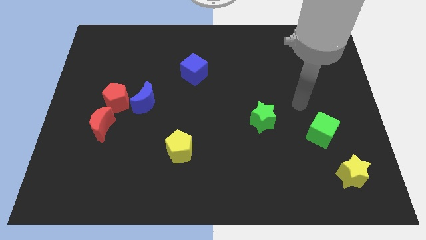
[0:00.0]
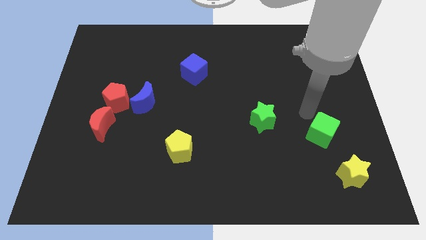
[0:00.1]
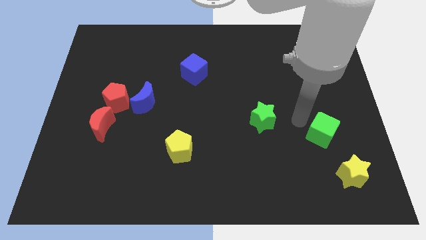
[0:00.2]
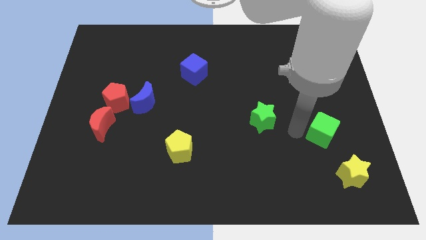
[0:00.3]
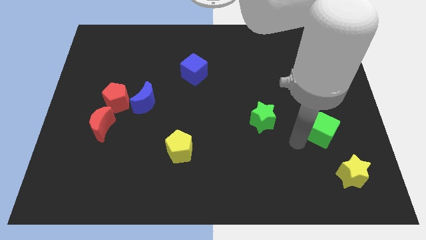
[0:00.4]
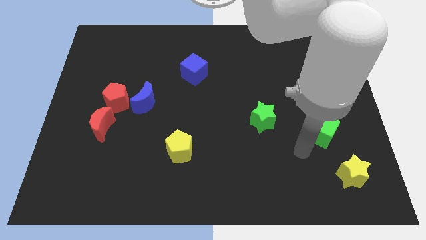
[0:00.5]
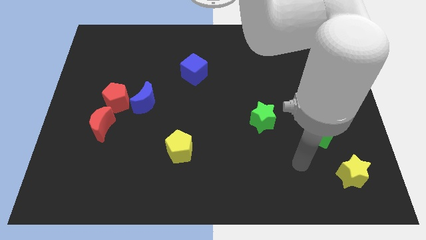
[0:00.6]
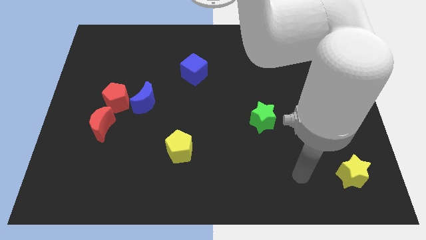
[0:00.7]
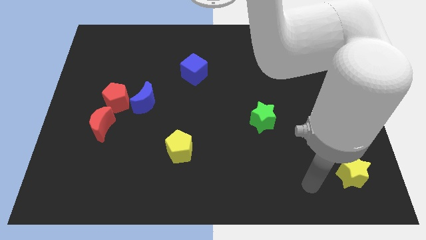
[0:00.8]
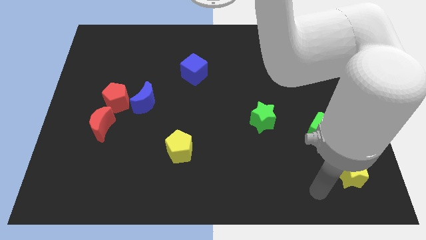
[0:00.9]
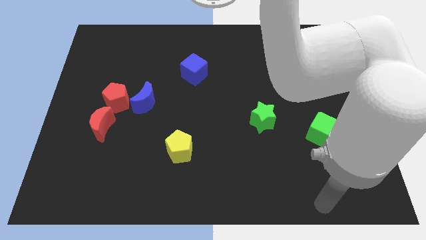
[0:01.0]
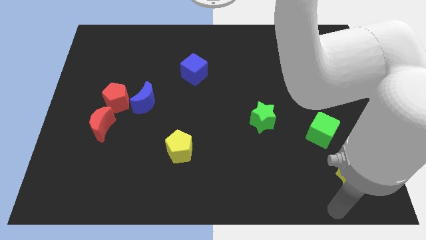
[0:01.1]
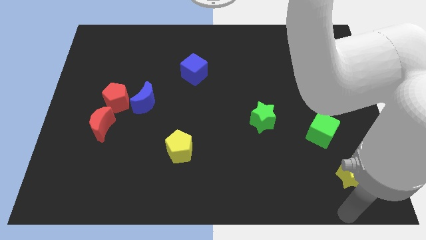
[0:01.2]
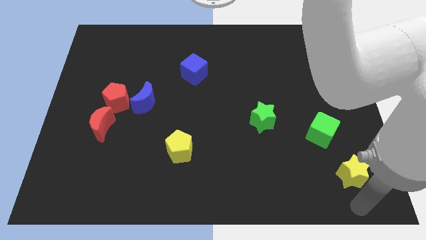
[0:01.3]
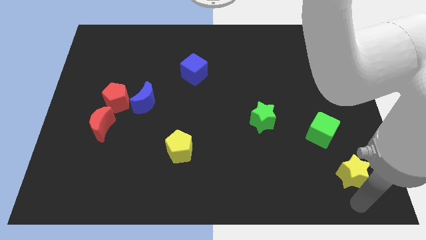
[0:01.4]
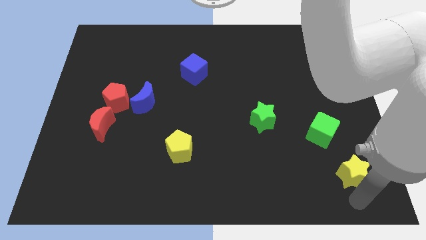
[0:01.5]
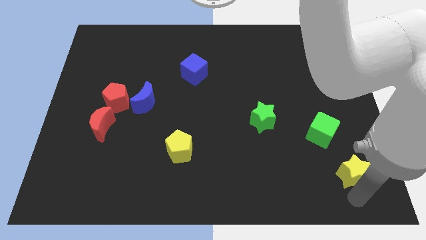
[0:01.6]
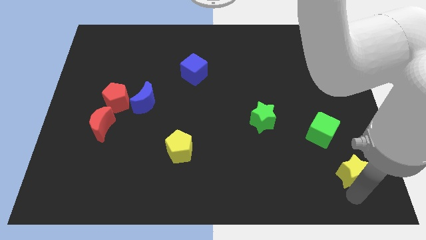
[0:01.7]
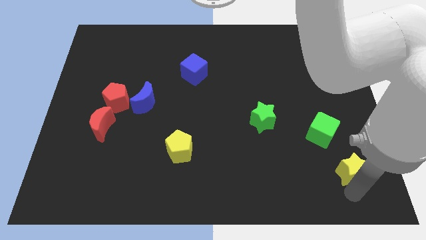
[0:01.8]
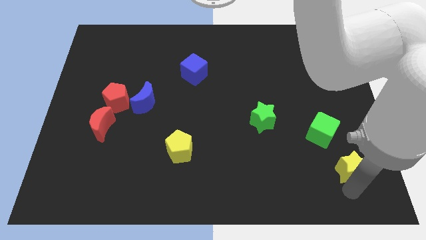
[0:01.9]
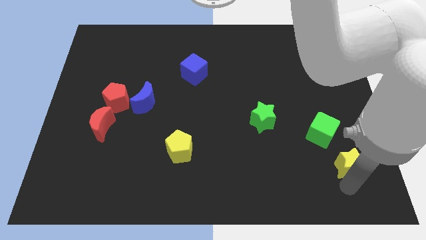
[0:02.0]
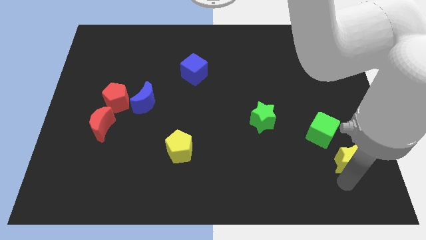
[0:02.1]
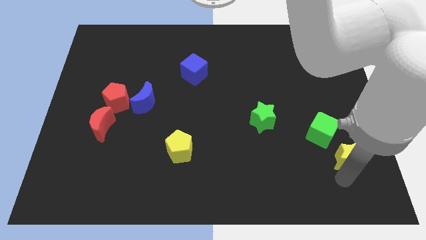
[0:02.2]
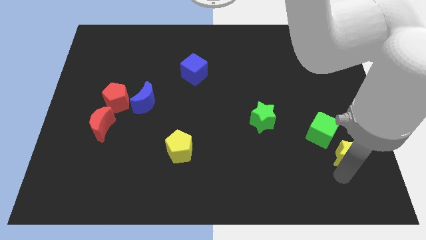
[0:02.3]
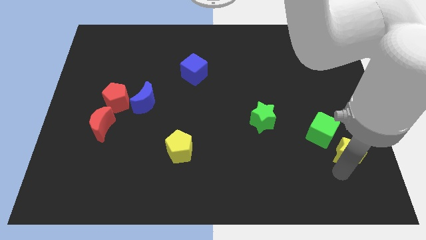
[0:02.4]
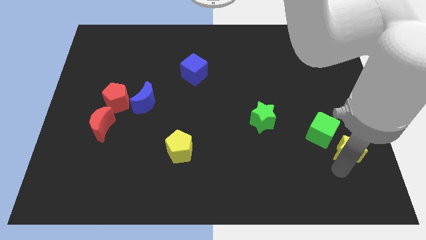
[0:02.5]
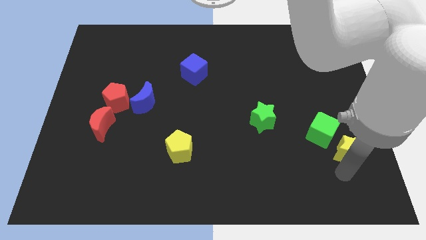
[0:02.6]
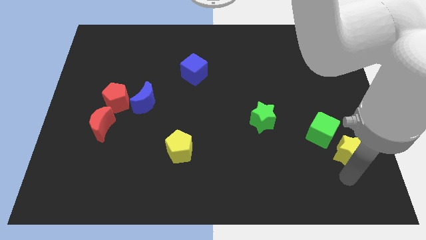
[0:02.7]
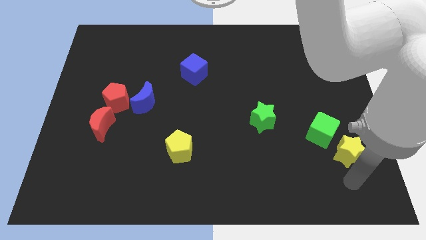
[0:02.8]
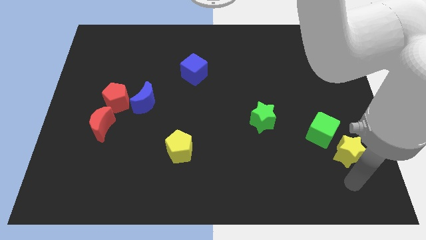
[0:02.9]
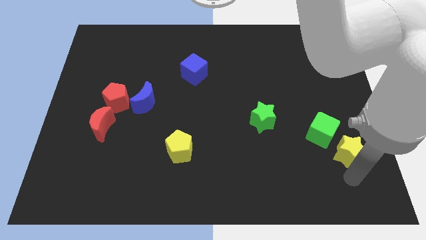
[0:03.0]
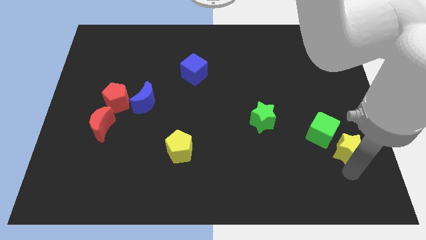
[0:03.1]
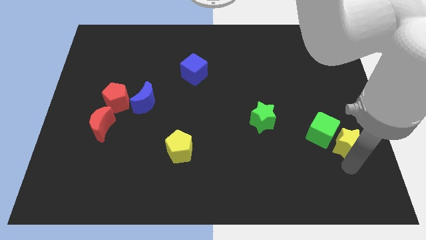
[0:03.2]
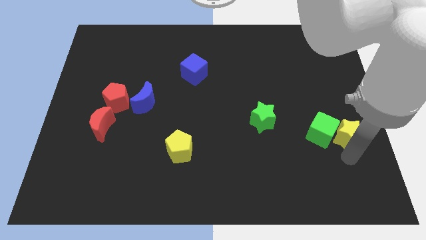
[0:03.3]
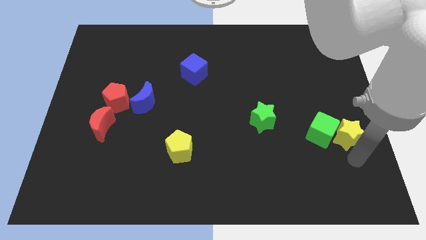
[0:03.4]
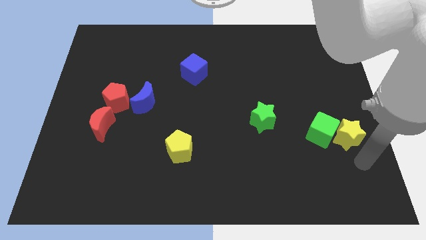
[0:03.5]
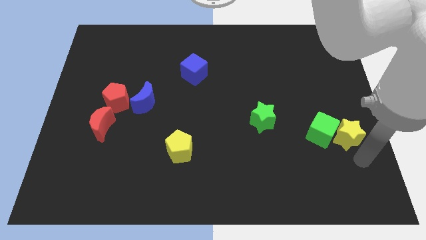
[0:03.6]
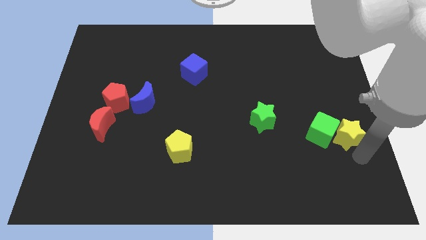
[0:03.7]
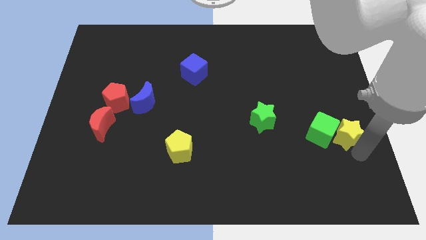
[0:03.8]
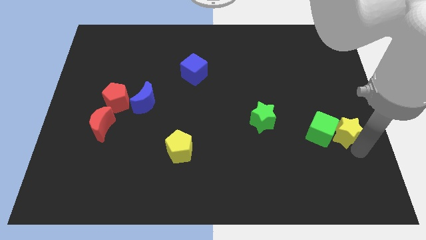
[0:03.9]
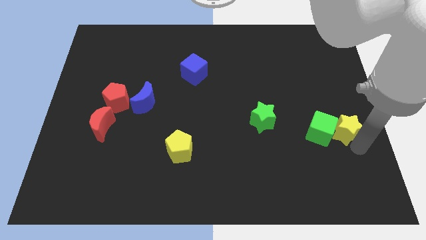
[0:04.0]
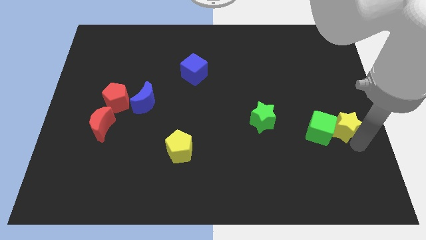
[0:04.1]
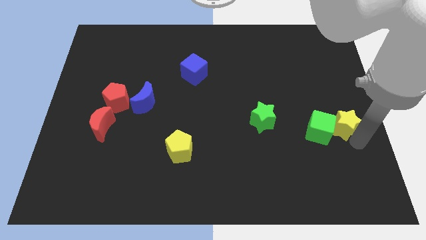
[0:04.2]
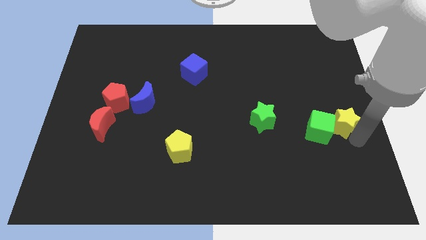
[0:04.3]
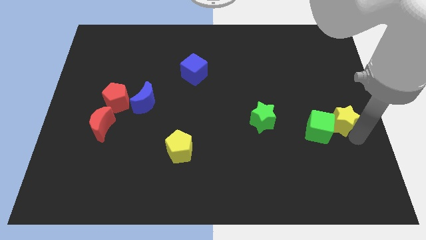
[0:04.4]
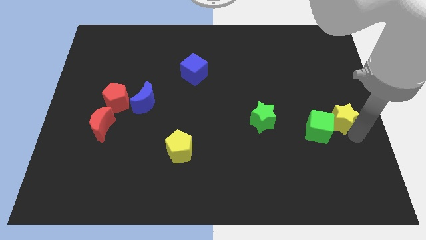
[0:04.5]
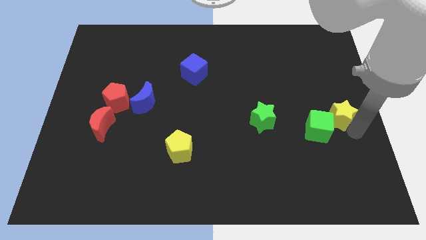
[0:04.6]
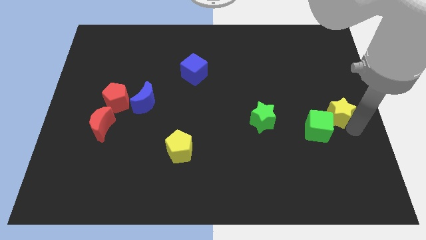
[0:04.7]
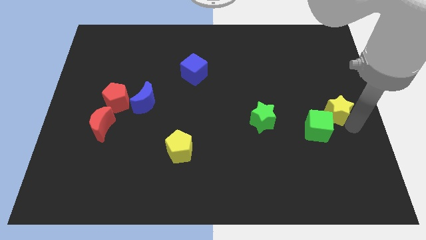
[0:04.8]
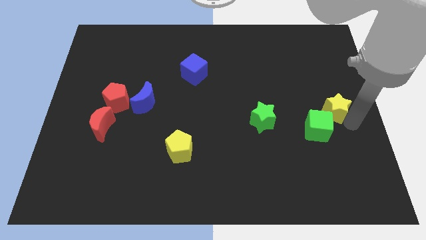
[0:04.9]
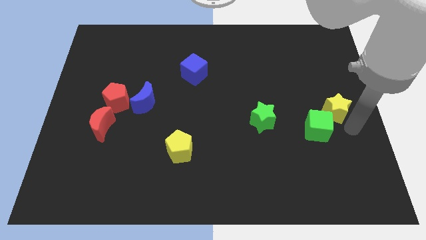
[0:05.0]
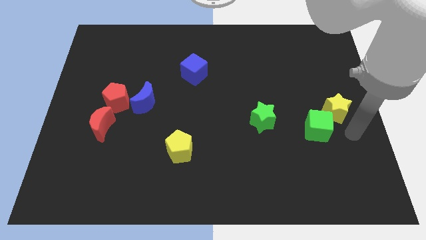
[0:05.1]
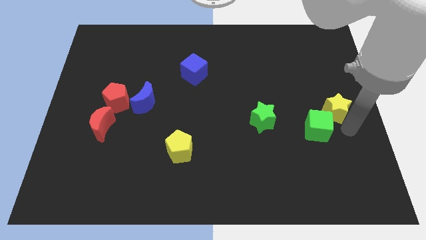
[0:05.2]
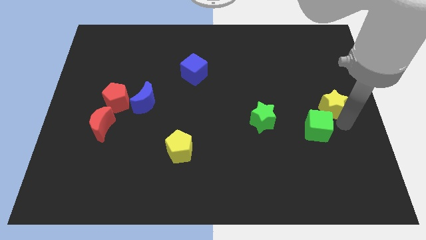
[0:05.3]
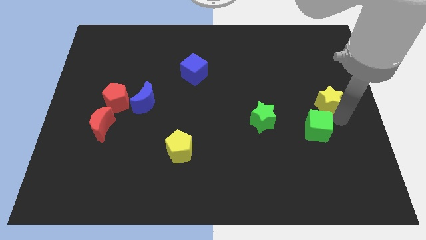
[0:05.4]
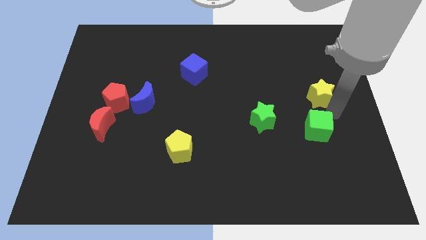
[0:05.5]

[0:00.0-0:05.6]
push the yellow star up

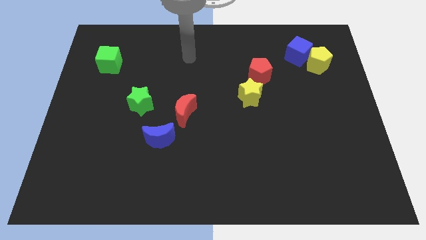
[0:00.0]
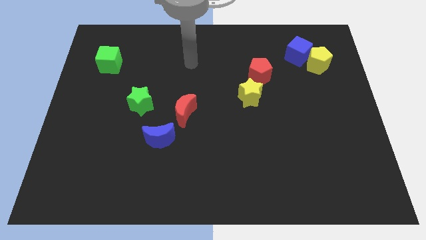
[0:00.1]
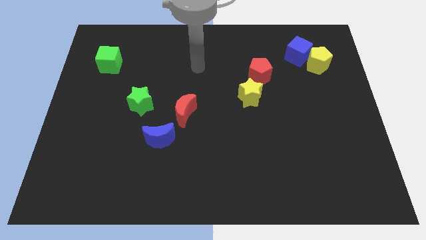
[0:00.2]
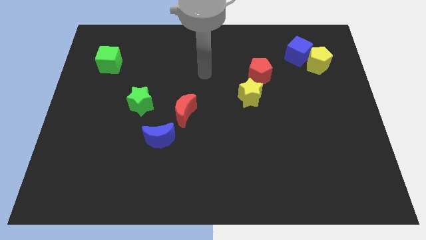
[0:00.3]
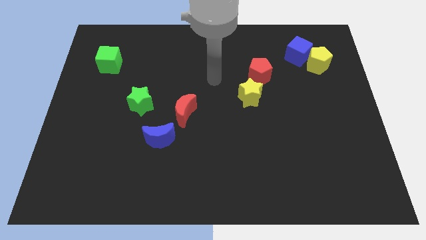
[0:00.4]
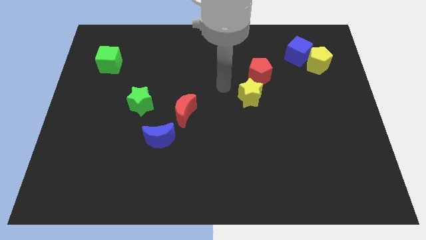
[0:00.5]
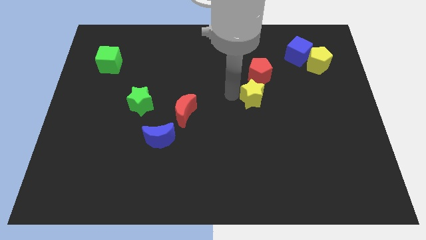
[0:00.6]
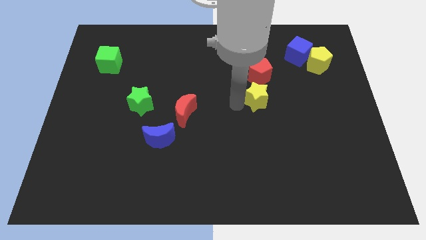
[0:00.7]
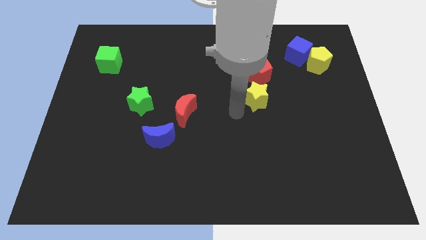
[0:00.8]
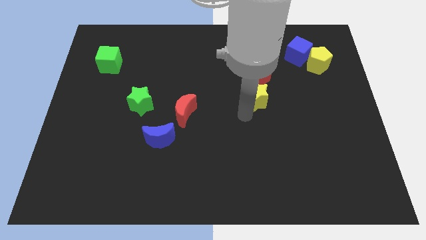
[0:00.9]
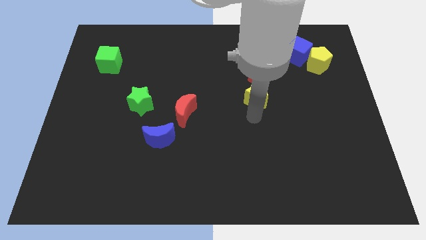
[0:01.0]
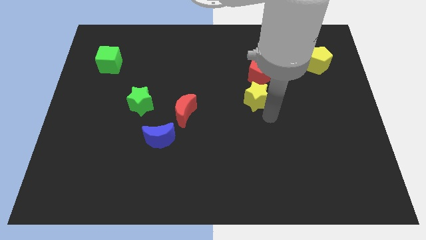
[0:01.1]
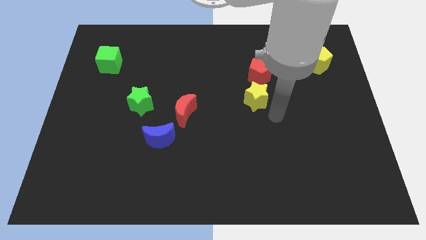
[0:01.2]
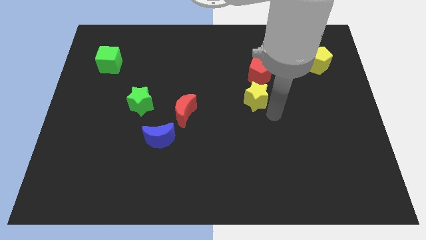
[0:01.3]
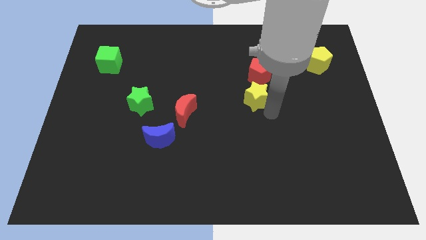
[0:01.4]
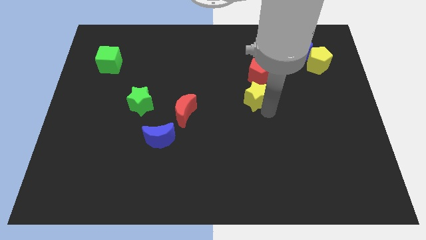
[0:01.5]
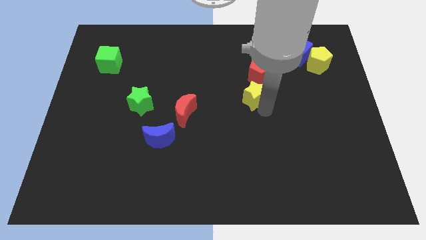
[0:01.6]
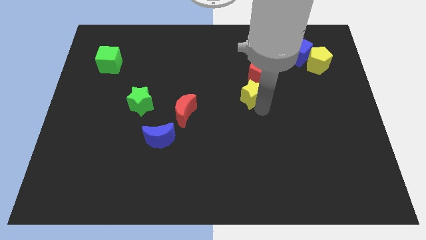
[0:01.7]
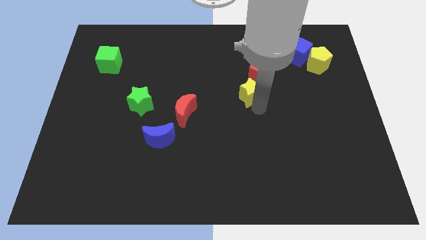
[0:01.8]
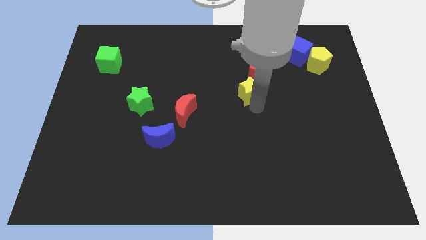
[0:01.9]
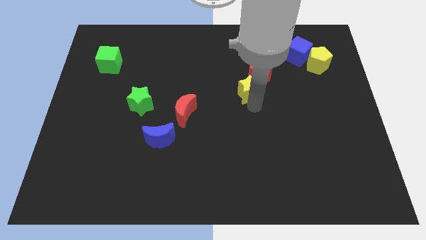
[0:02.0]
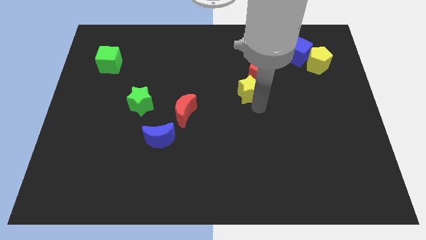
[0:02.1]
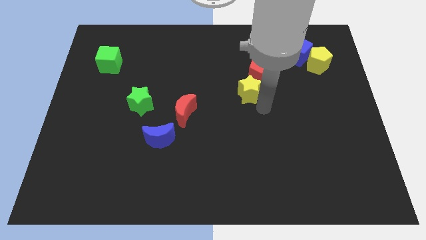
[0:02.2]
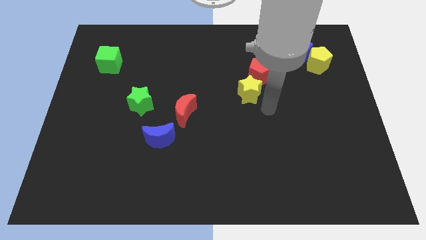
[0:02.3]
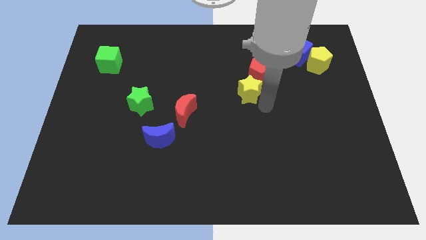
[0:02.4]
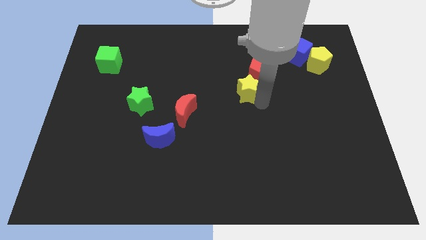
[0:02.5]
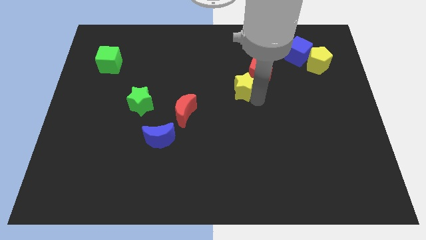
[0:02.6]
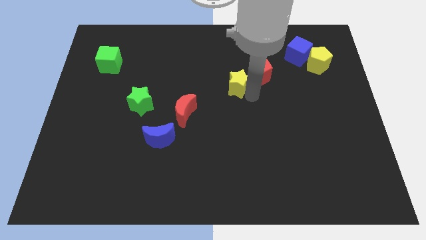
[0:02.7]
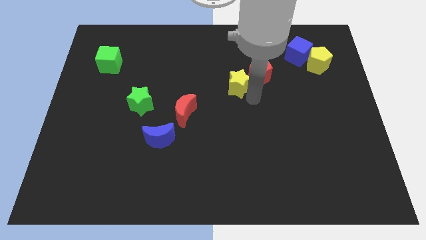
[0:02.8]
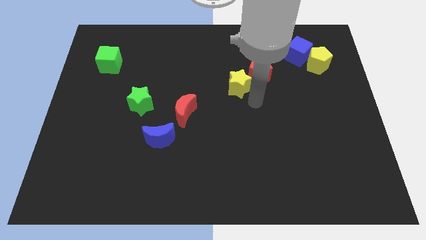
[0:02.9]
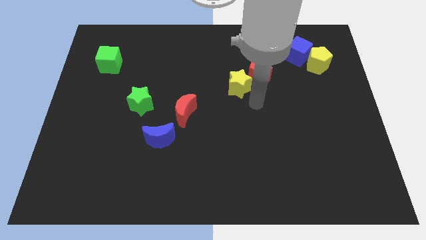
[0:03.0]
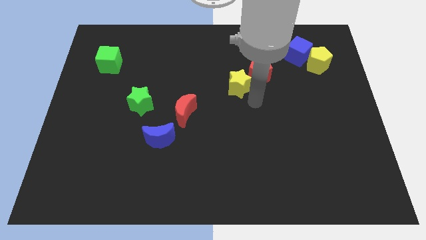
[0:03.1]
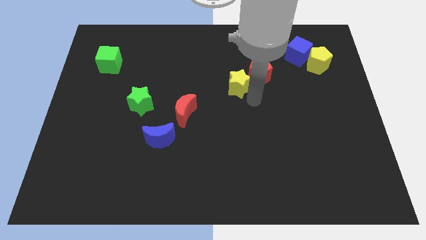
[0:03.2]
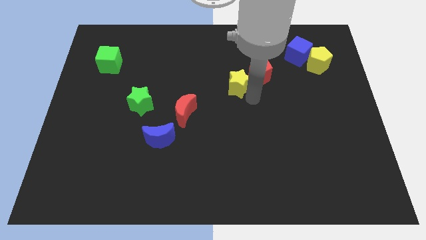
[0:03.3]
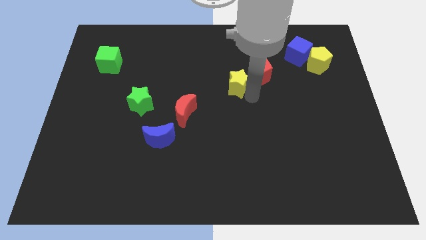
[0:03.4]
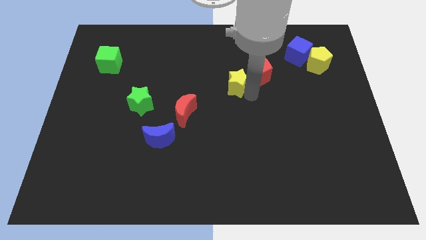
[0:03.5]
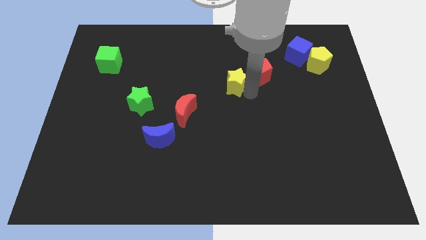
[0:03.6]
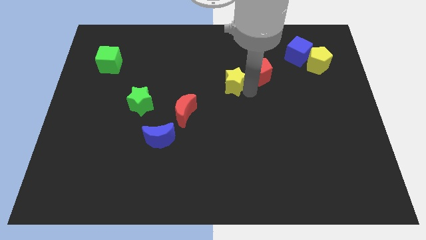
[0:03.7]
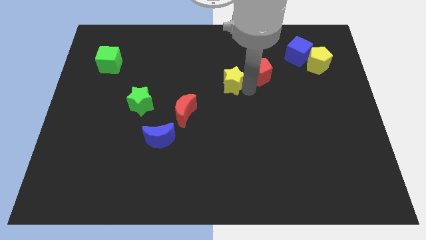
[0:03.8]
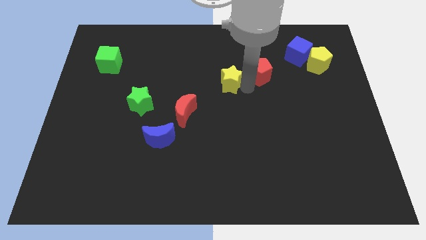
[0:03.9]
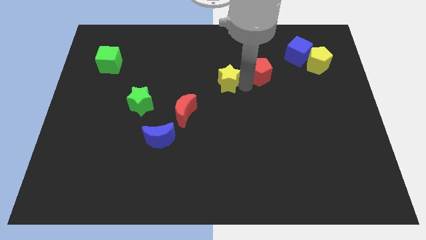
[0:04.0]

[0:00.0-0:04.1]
slightly slide the yellow star upwards and to the left
